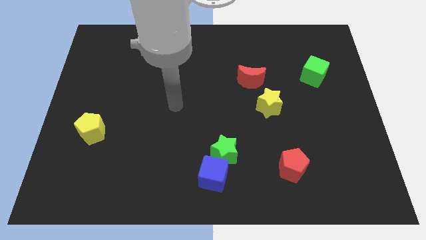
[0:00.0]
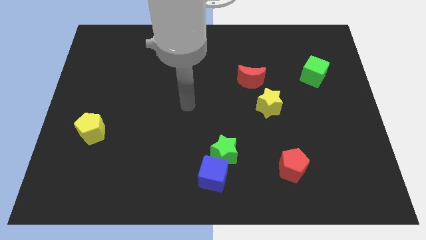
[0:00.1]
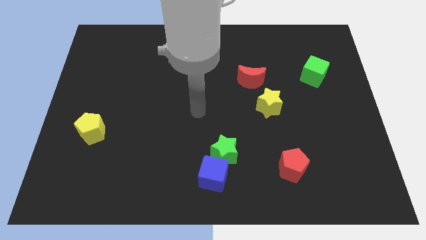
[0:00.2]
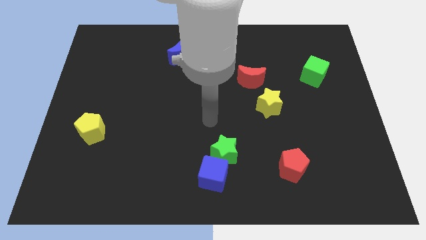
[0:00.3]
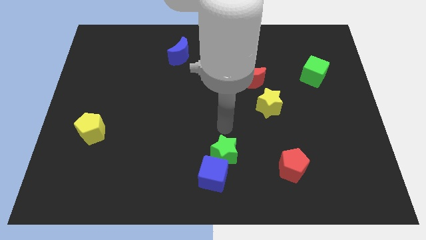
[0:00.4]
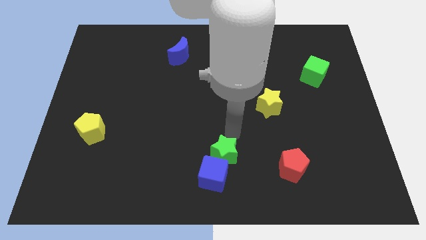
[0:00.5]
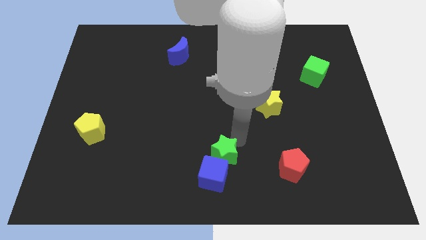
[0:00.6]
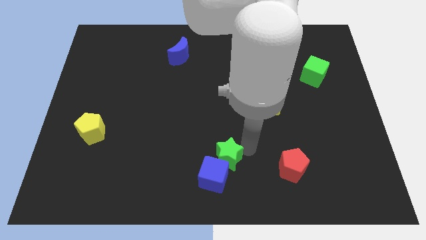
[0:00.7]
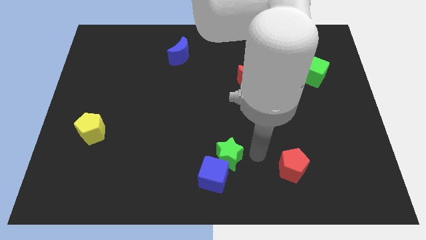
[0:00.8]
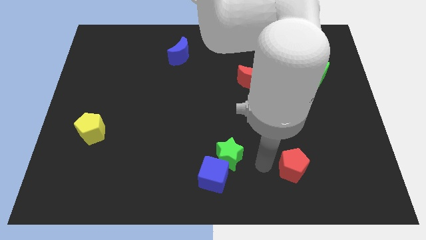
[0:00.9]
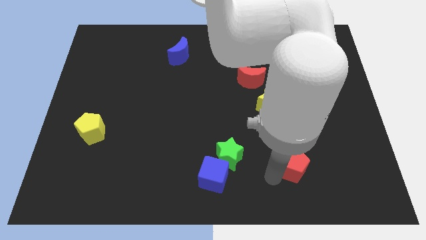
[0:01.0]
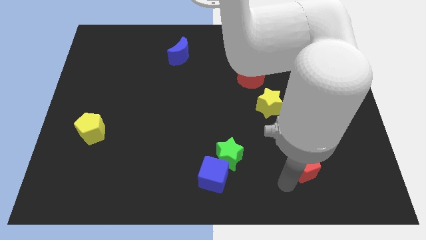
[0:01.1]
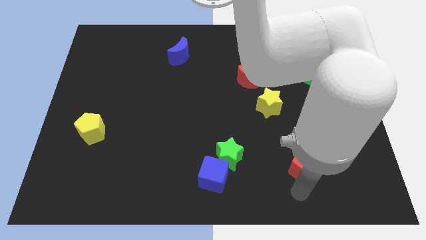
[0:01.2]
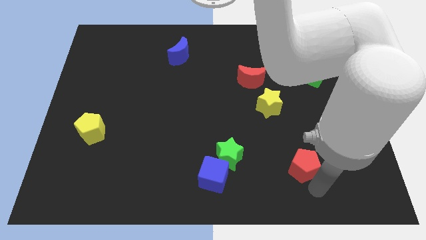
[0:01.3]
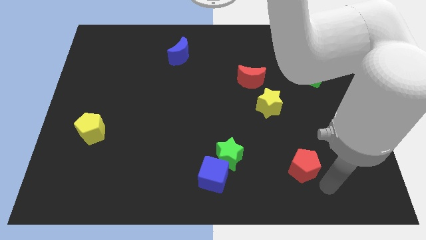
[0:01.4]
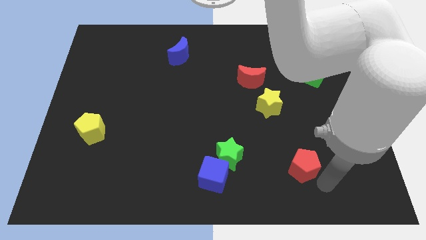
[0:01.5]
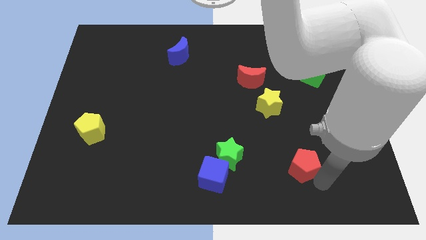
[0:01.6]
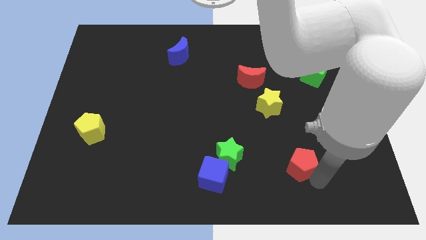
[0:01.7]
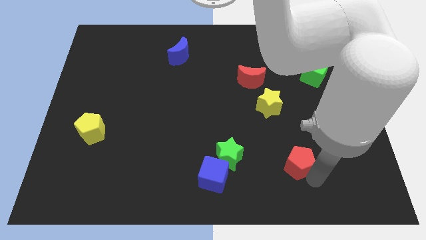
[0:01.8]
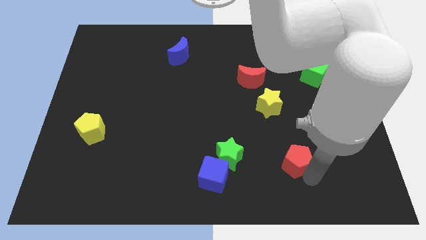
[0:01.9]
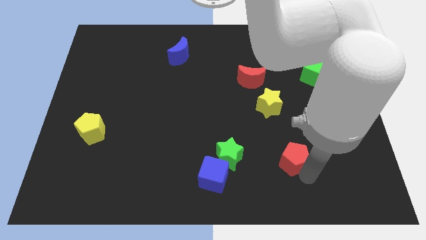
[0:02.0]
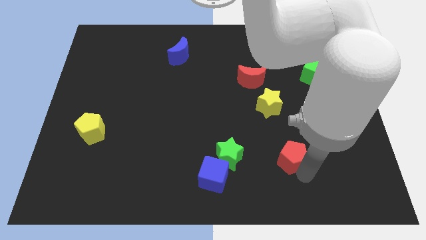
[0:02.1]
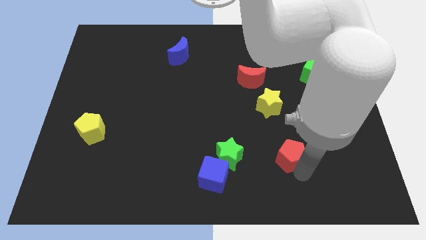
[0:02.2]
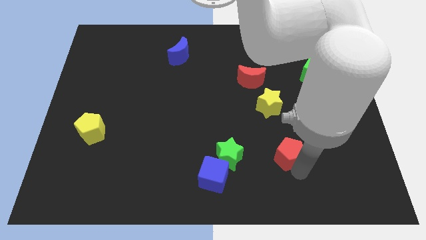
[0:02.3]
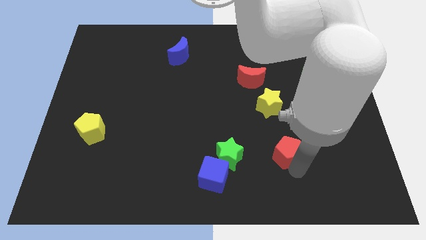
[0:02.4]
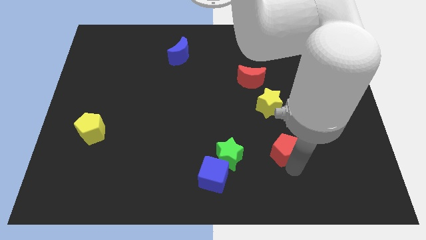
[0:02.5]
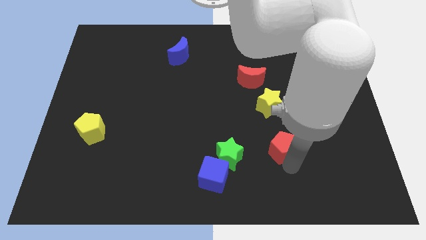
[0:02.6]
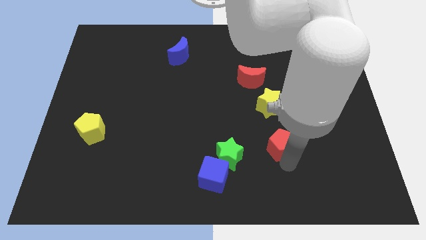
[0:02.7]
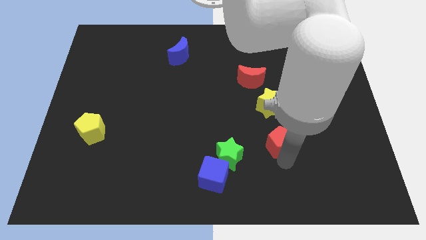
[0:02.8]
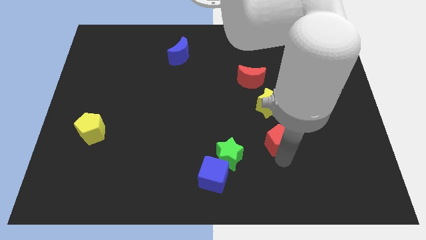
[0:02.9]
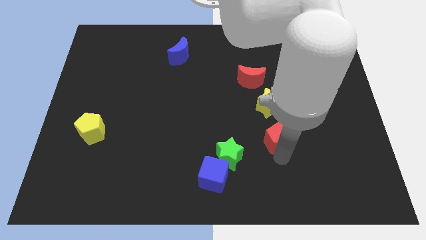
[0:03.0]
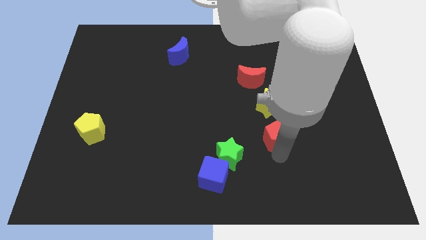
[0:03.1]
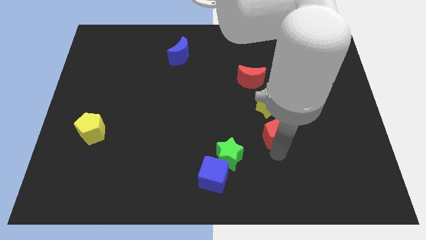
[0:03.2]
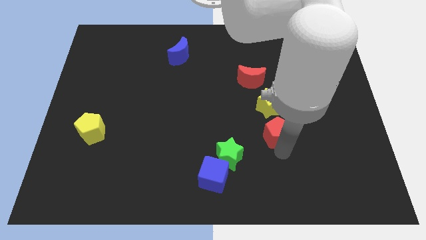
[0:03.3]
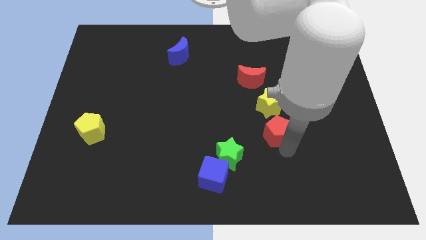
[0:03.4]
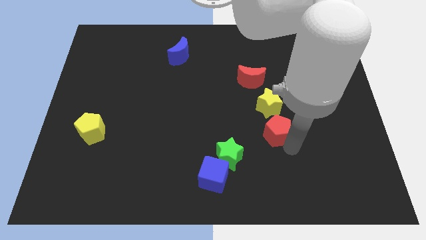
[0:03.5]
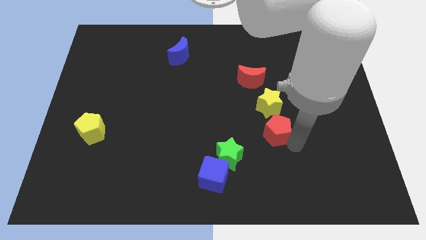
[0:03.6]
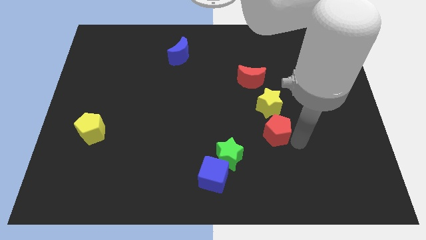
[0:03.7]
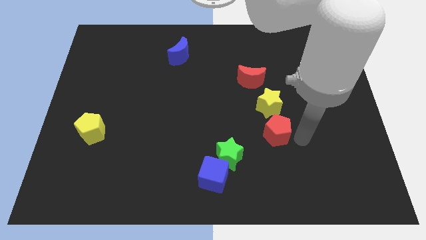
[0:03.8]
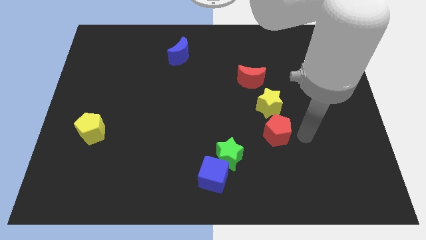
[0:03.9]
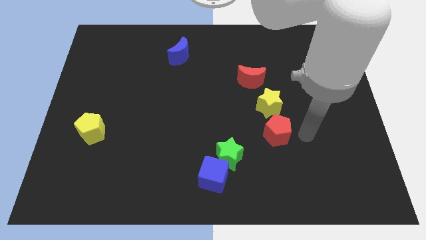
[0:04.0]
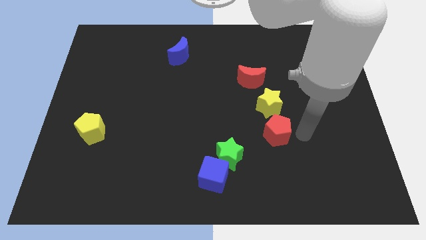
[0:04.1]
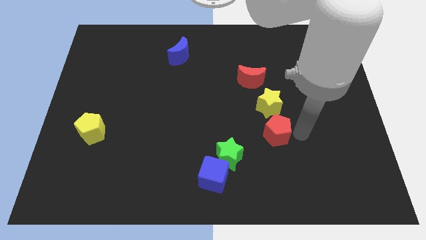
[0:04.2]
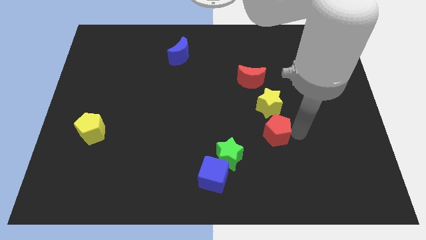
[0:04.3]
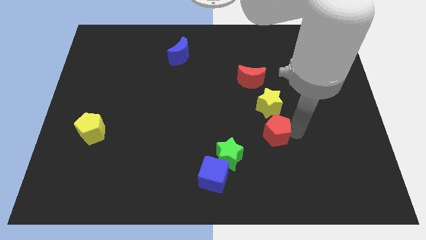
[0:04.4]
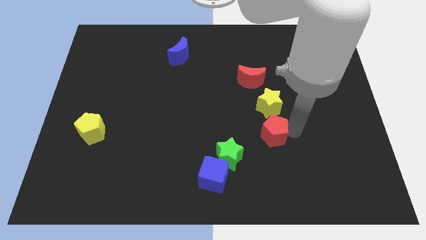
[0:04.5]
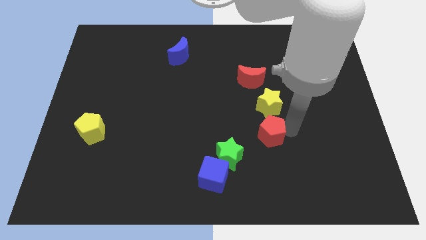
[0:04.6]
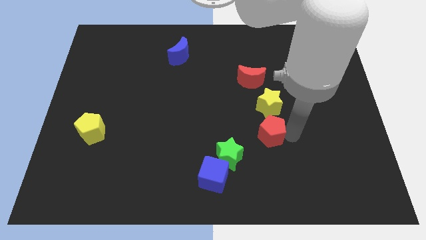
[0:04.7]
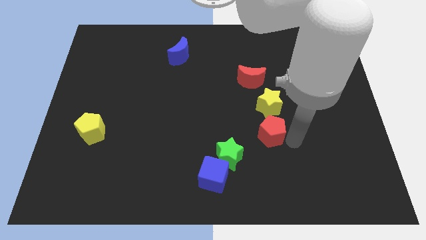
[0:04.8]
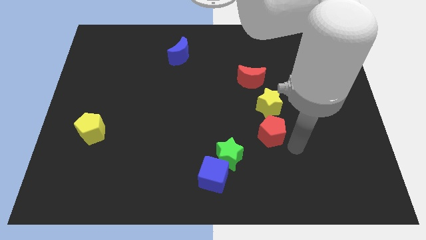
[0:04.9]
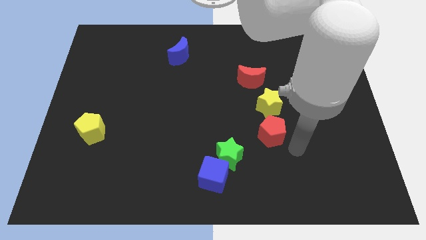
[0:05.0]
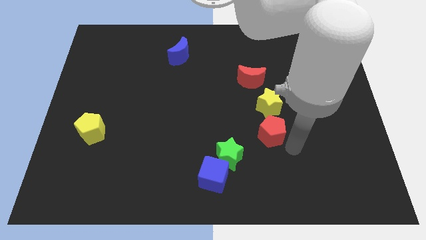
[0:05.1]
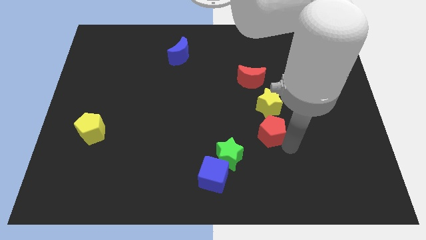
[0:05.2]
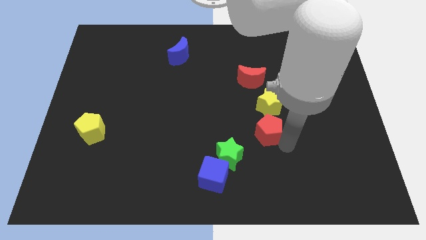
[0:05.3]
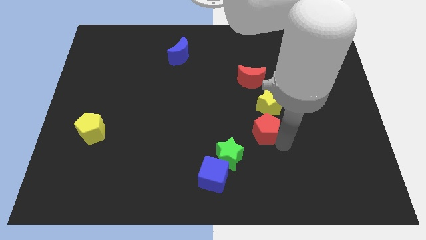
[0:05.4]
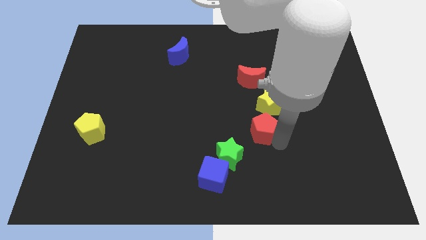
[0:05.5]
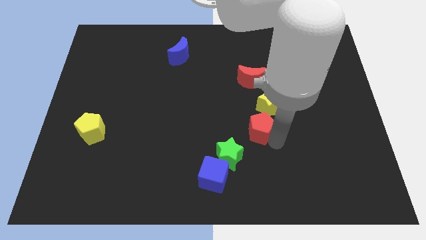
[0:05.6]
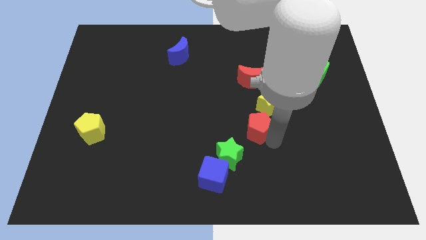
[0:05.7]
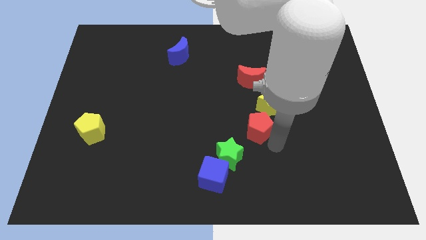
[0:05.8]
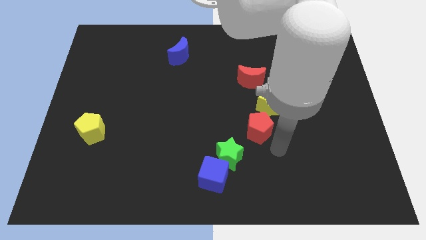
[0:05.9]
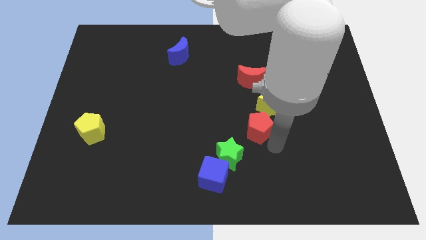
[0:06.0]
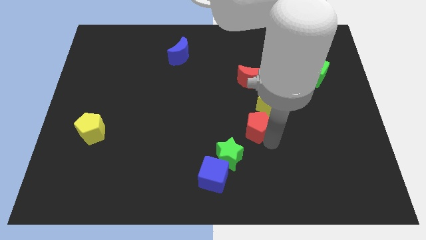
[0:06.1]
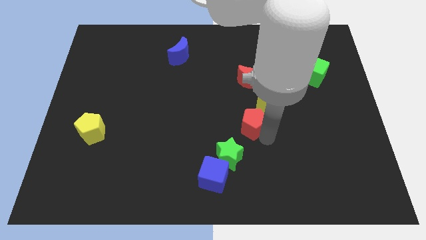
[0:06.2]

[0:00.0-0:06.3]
slide the red pentagon to the center
